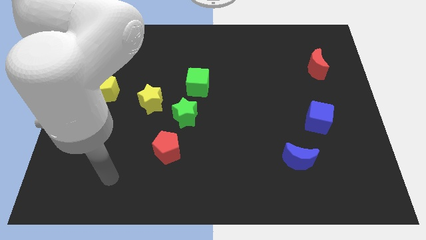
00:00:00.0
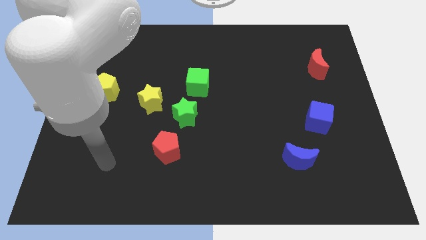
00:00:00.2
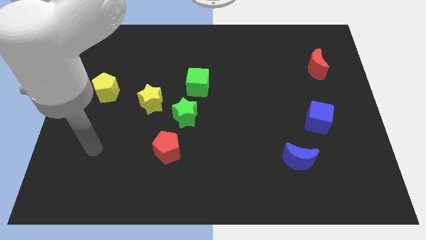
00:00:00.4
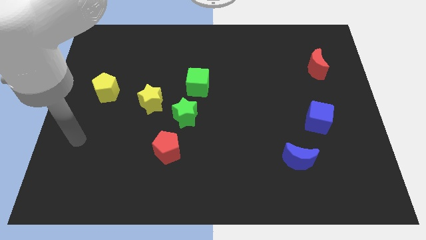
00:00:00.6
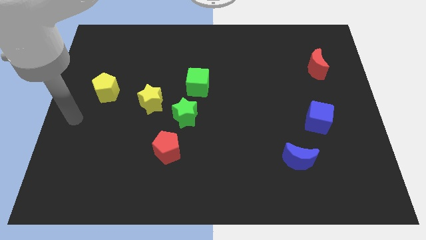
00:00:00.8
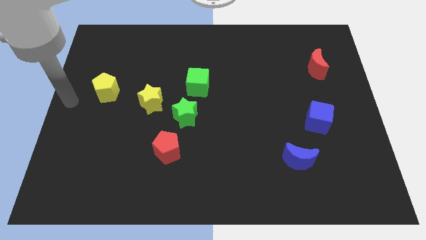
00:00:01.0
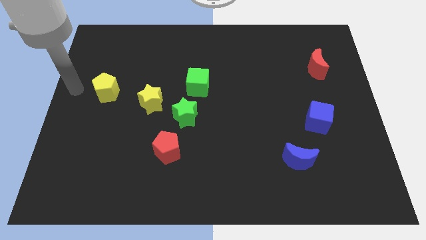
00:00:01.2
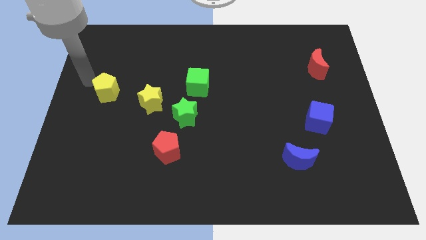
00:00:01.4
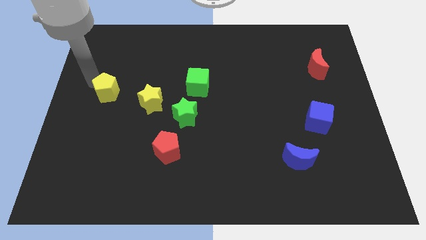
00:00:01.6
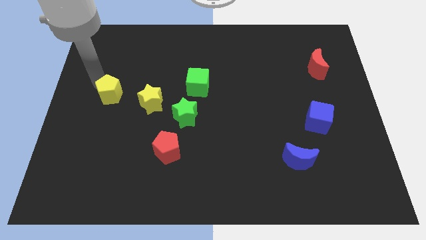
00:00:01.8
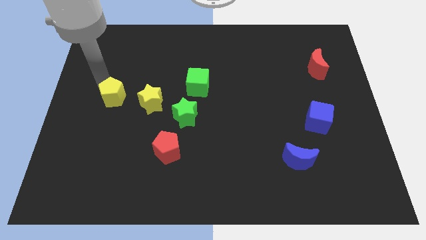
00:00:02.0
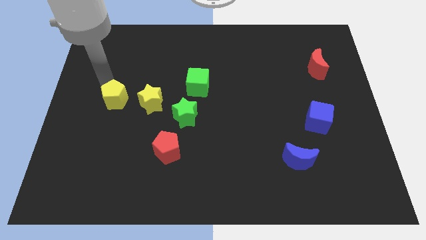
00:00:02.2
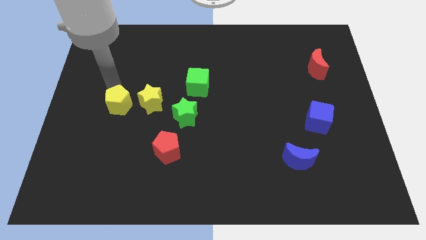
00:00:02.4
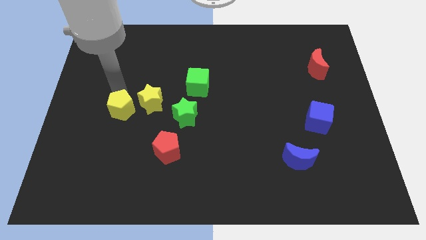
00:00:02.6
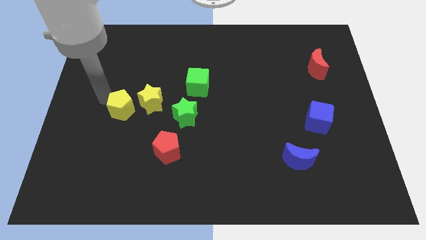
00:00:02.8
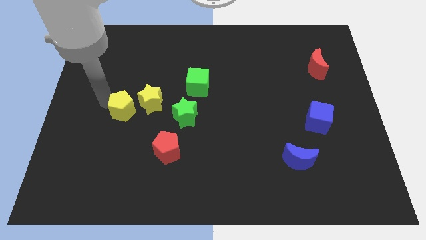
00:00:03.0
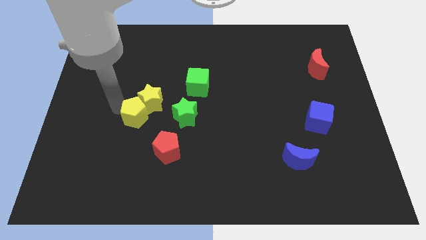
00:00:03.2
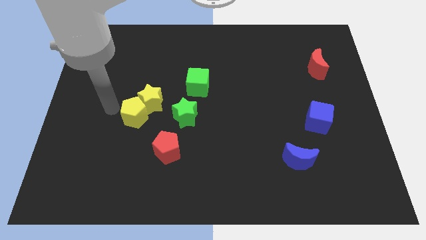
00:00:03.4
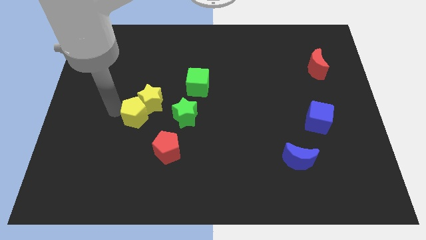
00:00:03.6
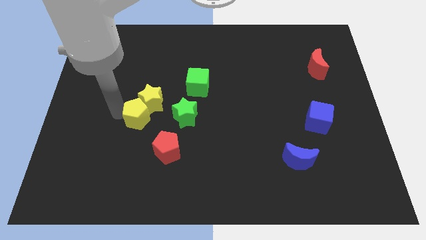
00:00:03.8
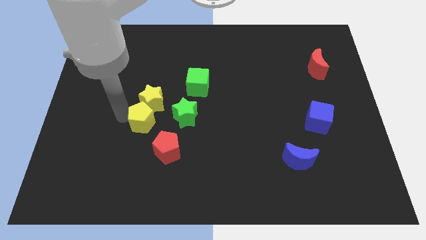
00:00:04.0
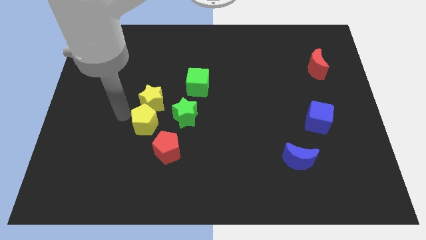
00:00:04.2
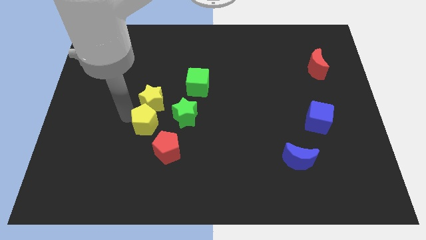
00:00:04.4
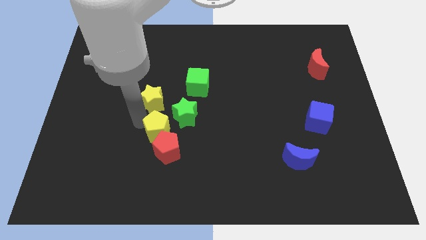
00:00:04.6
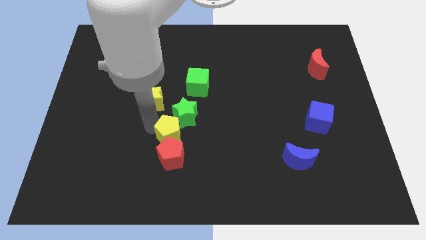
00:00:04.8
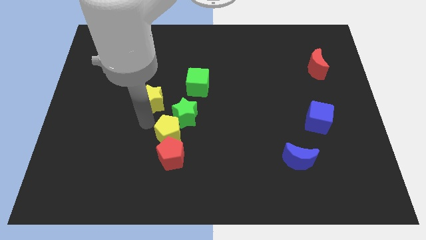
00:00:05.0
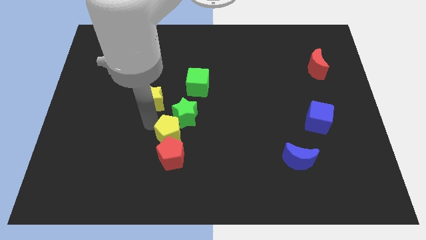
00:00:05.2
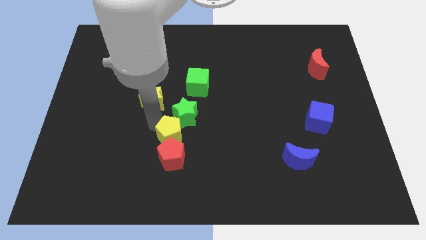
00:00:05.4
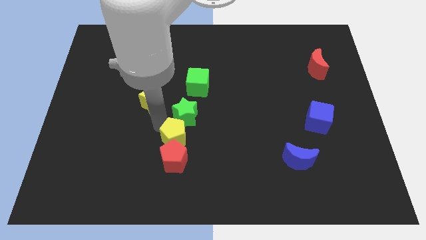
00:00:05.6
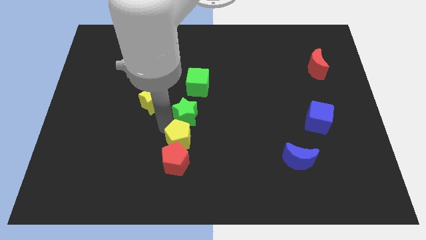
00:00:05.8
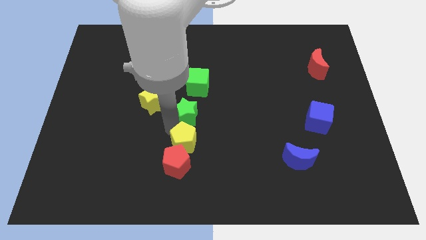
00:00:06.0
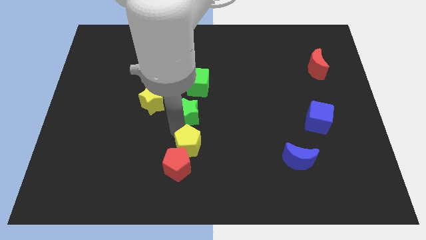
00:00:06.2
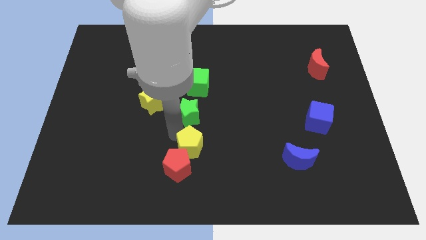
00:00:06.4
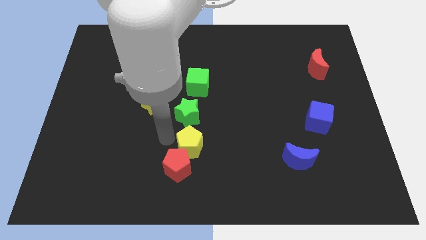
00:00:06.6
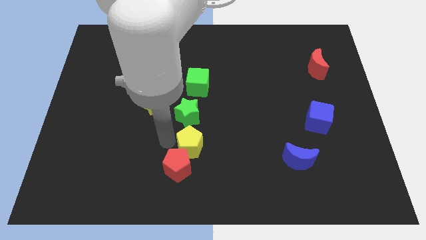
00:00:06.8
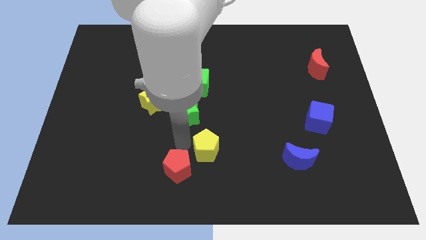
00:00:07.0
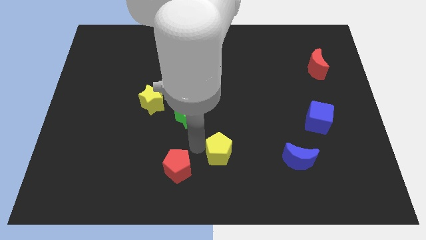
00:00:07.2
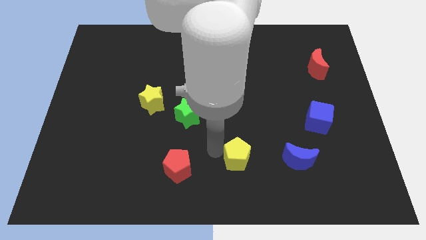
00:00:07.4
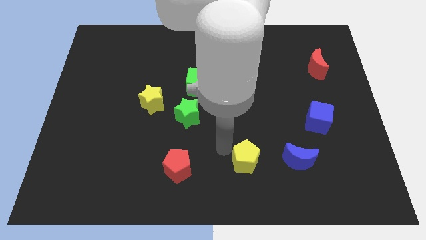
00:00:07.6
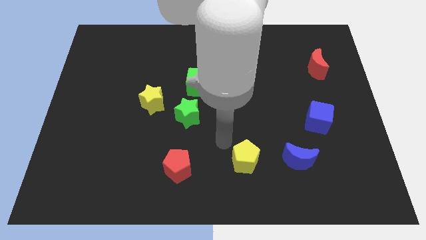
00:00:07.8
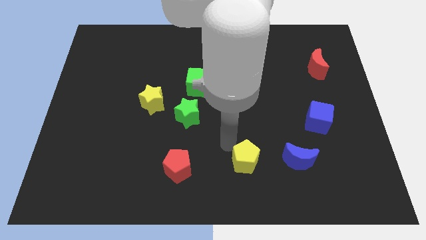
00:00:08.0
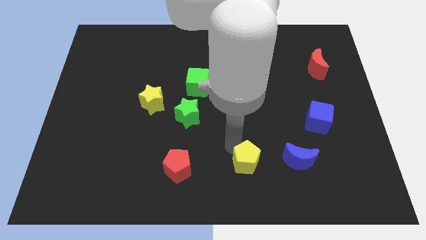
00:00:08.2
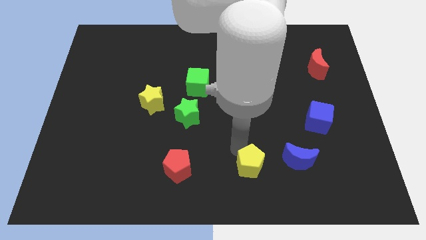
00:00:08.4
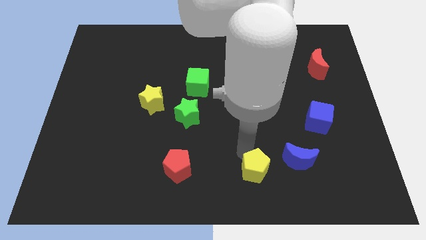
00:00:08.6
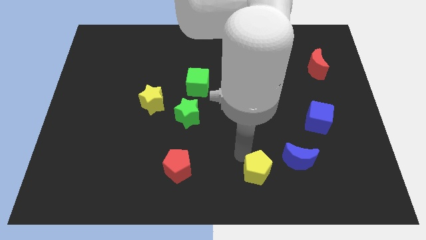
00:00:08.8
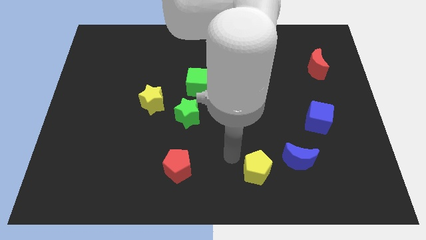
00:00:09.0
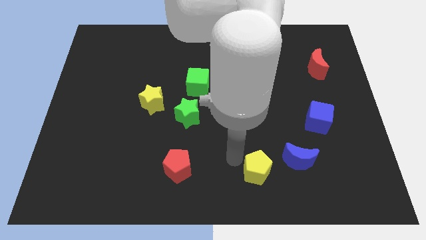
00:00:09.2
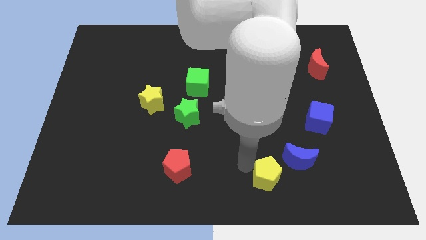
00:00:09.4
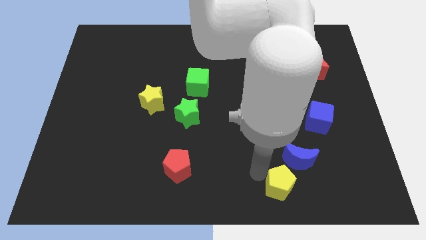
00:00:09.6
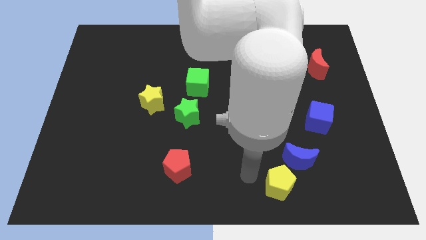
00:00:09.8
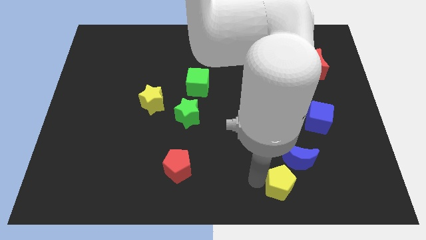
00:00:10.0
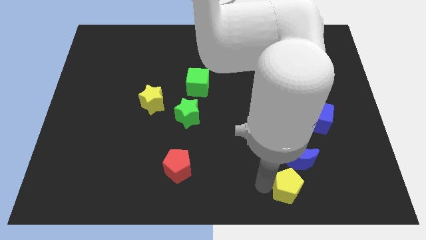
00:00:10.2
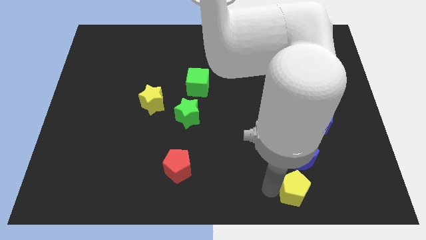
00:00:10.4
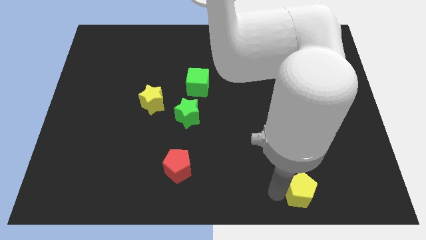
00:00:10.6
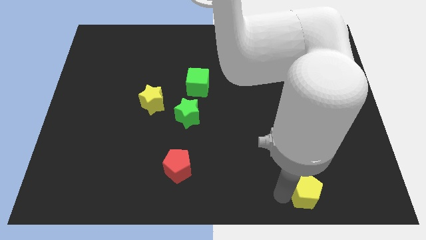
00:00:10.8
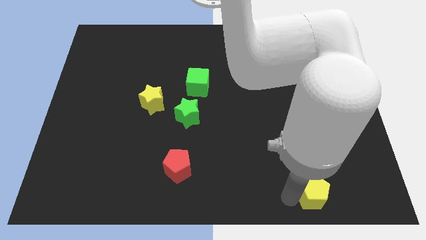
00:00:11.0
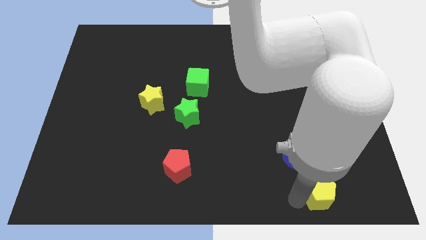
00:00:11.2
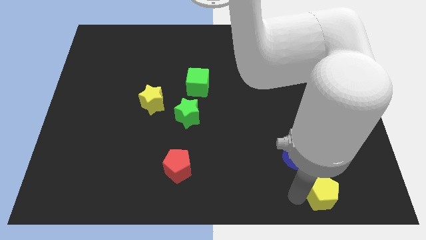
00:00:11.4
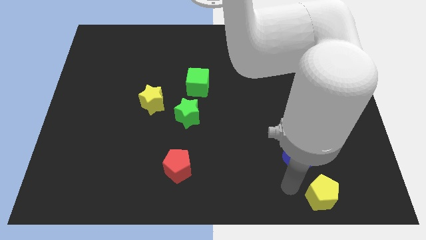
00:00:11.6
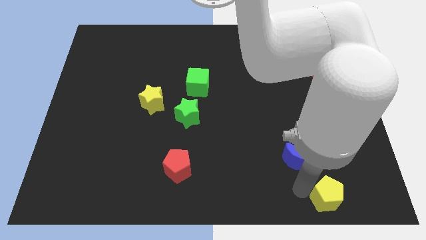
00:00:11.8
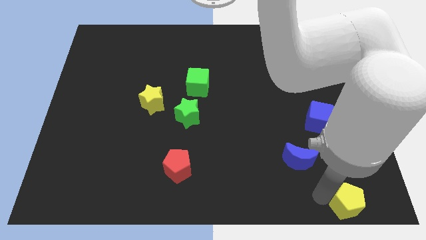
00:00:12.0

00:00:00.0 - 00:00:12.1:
slide the yellow pentagon to the bottom right
